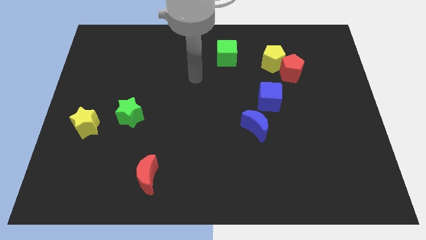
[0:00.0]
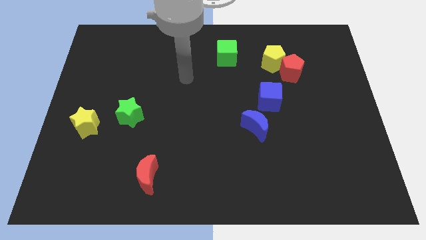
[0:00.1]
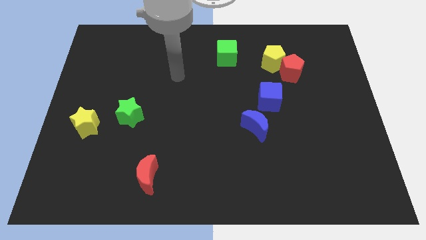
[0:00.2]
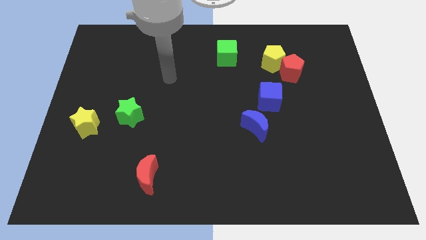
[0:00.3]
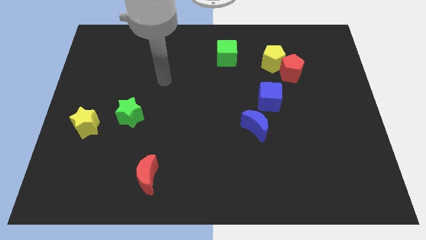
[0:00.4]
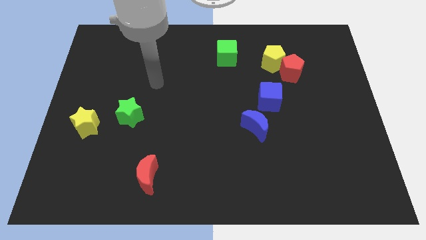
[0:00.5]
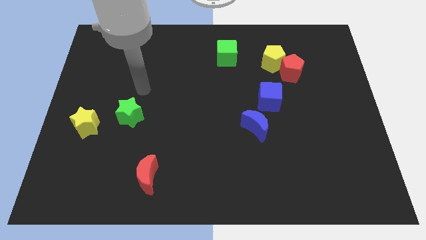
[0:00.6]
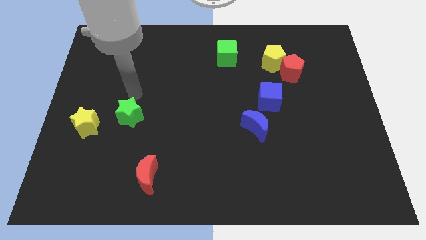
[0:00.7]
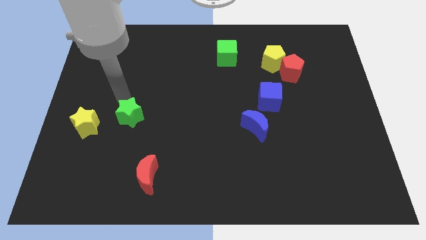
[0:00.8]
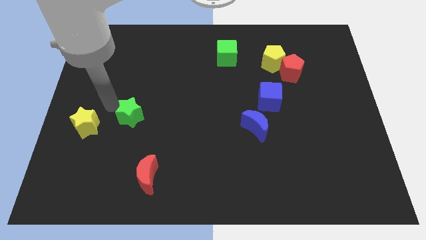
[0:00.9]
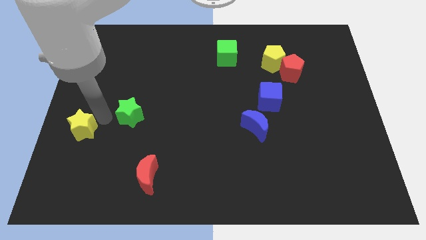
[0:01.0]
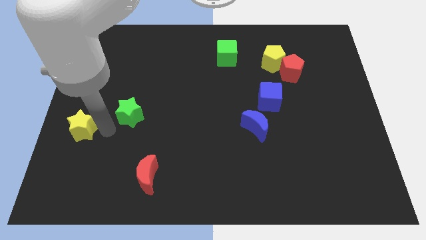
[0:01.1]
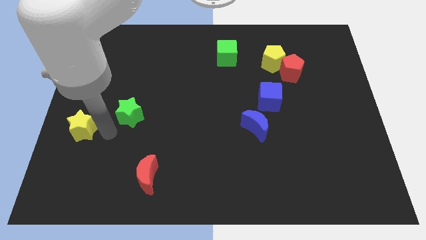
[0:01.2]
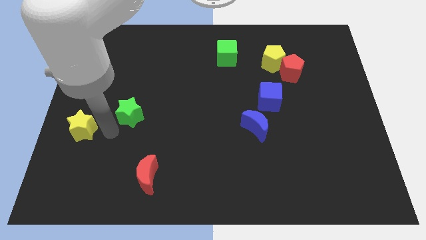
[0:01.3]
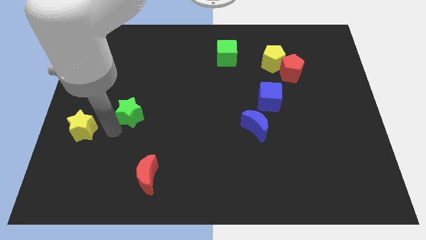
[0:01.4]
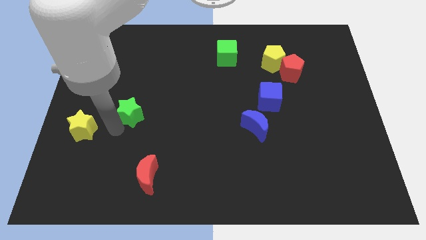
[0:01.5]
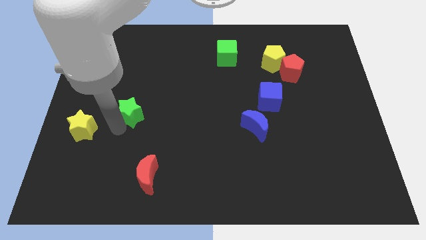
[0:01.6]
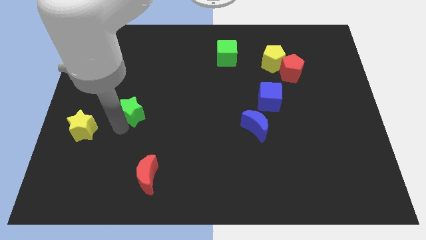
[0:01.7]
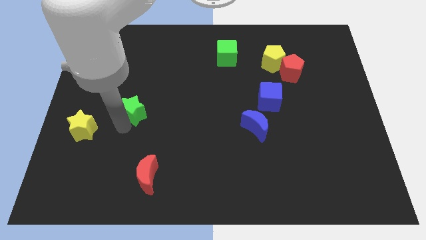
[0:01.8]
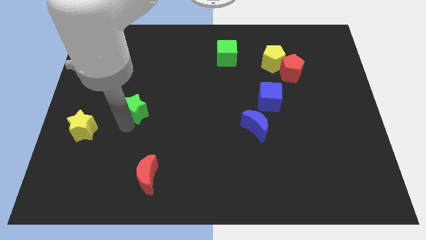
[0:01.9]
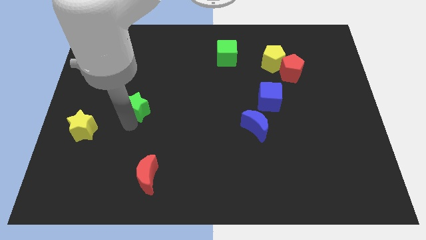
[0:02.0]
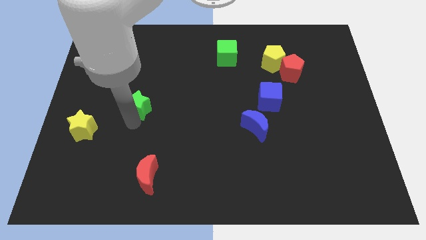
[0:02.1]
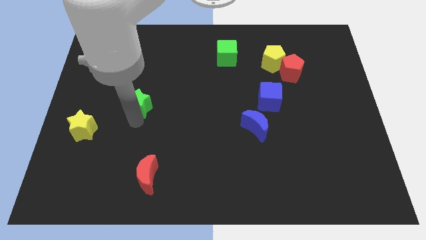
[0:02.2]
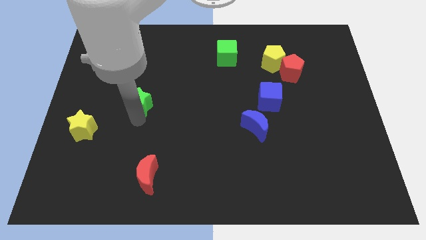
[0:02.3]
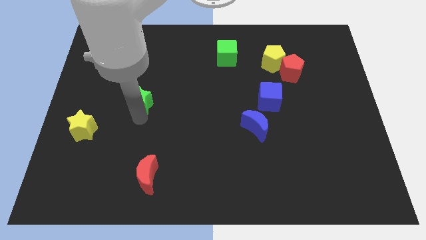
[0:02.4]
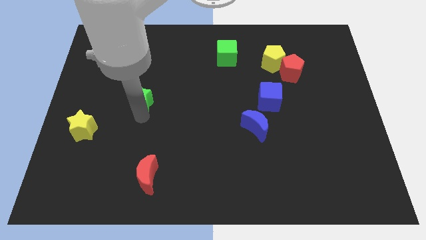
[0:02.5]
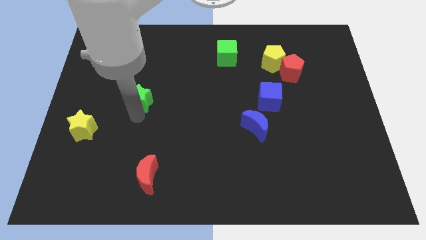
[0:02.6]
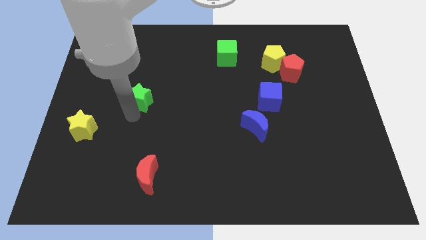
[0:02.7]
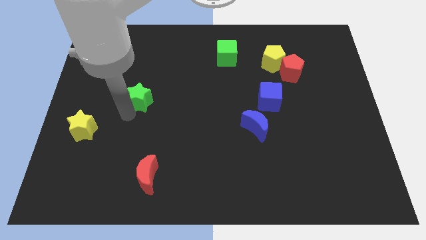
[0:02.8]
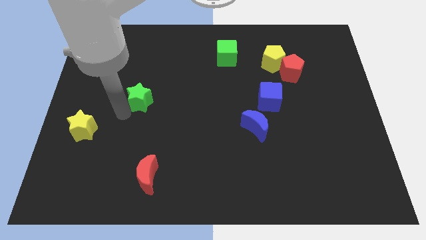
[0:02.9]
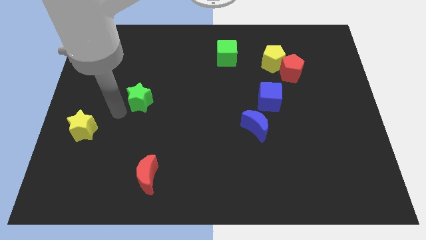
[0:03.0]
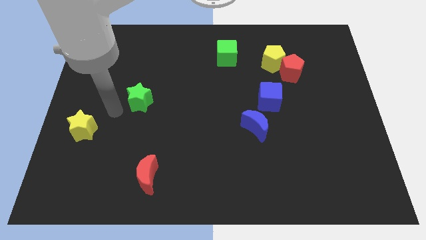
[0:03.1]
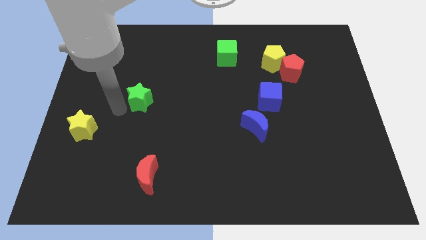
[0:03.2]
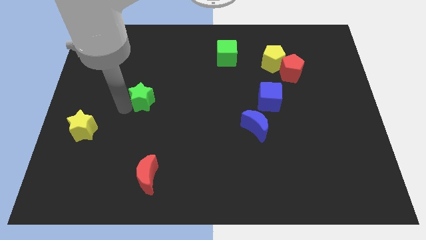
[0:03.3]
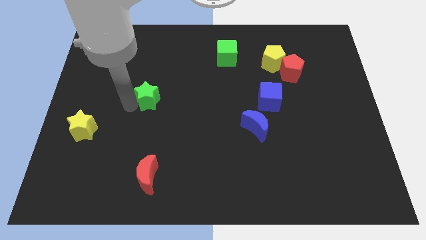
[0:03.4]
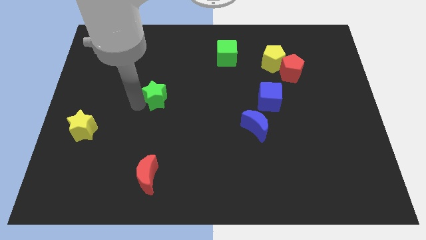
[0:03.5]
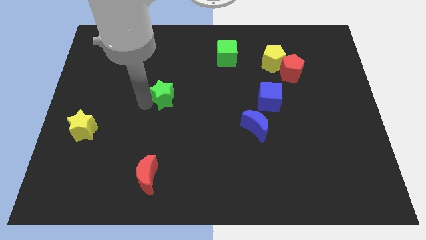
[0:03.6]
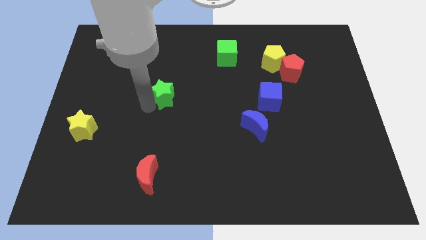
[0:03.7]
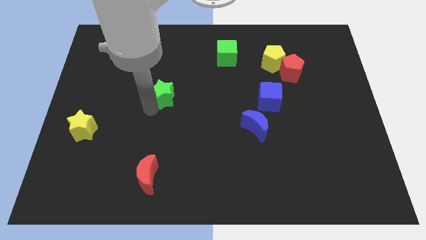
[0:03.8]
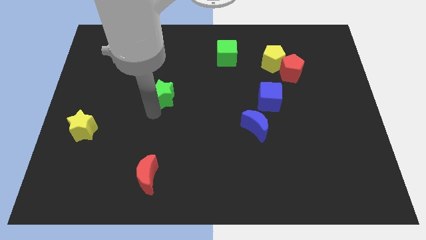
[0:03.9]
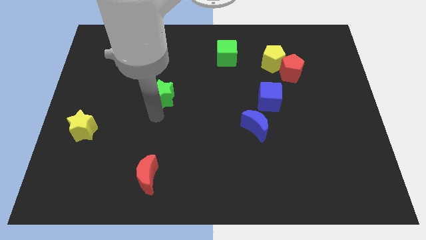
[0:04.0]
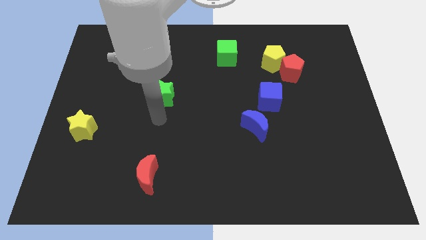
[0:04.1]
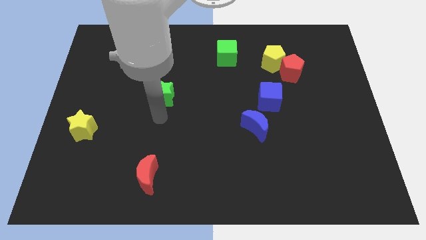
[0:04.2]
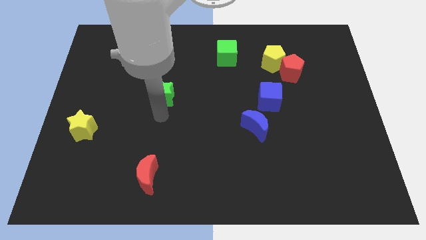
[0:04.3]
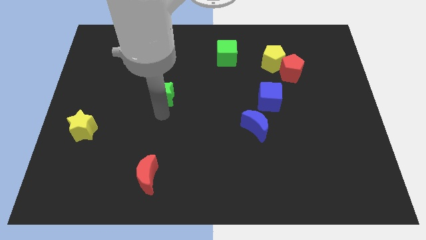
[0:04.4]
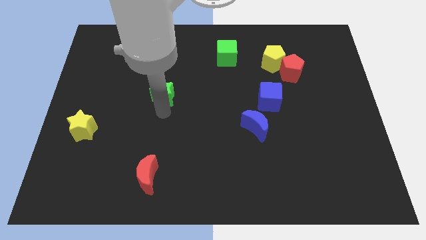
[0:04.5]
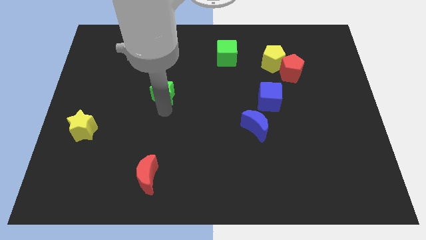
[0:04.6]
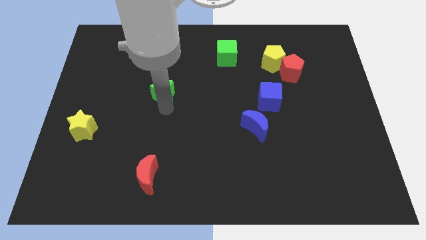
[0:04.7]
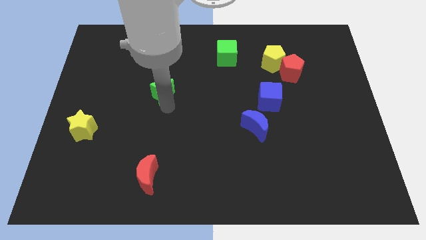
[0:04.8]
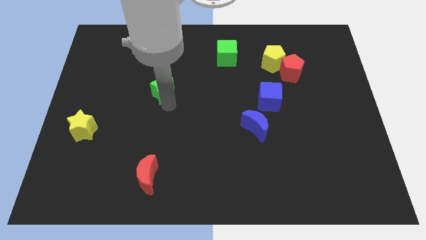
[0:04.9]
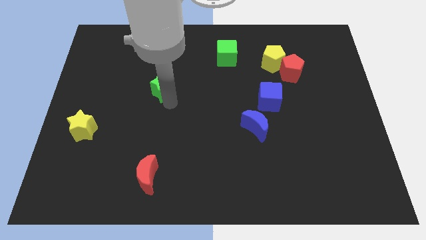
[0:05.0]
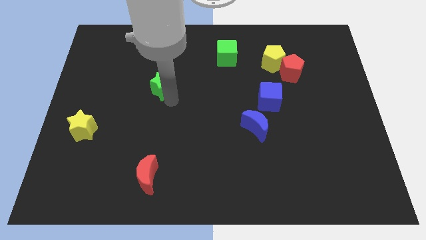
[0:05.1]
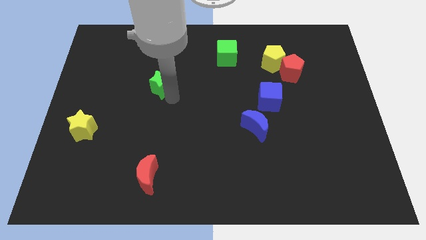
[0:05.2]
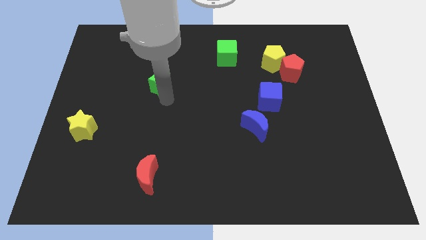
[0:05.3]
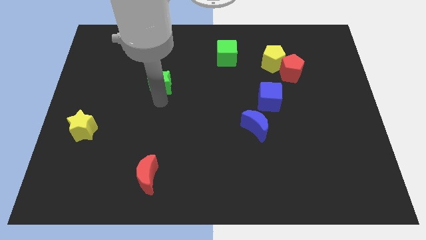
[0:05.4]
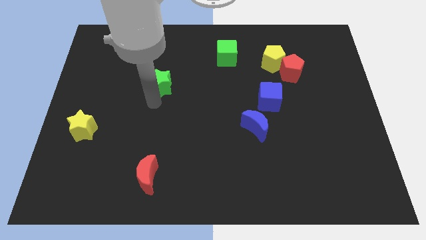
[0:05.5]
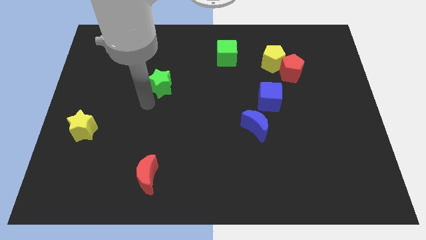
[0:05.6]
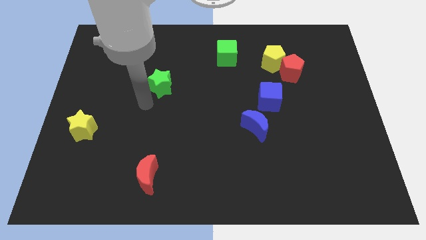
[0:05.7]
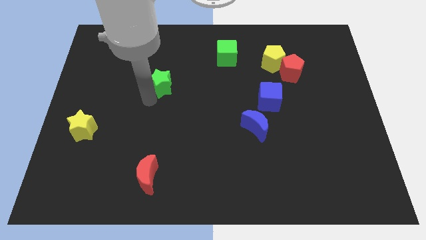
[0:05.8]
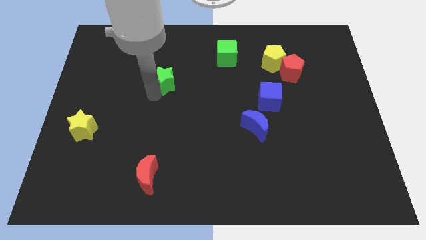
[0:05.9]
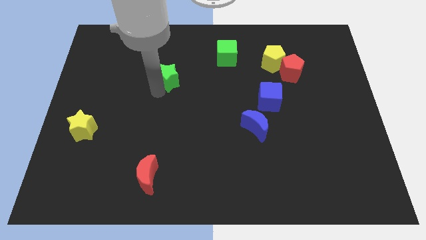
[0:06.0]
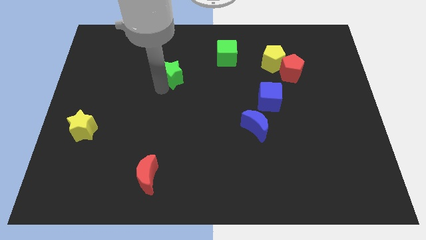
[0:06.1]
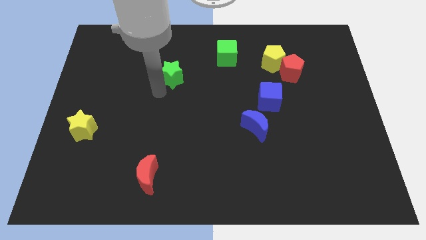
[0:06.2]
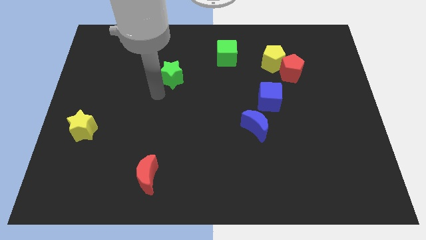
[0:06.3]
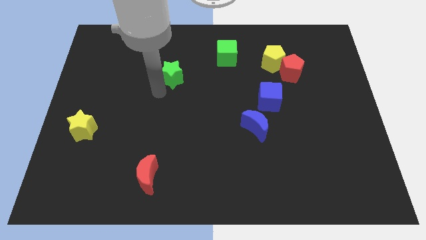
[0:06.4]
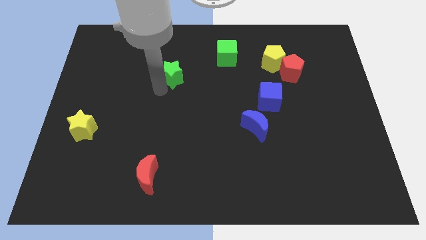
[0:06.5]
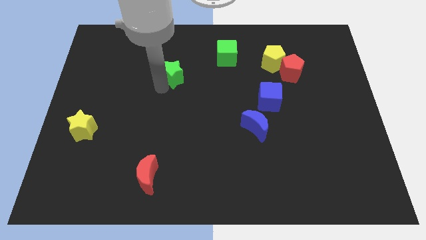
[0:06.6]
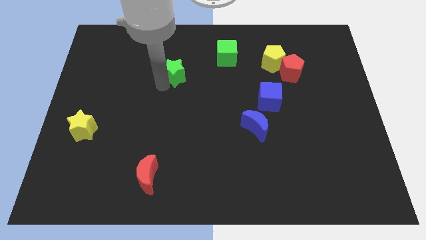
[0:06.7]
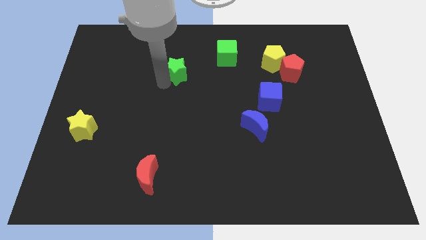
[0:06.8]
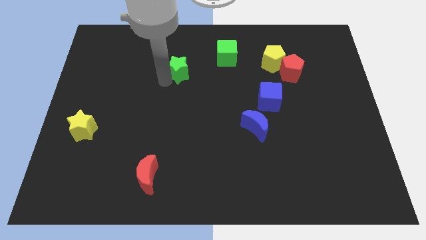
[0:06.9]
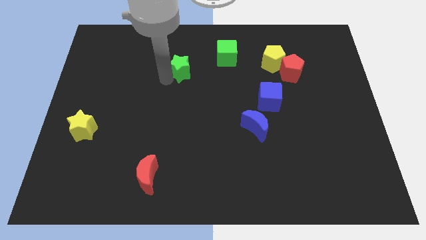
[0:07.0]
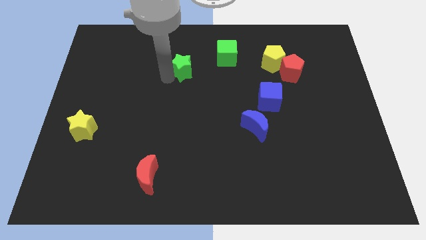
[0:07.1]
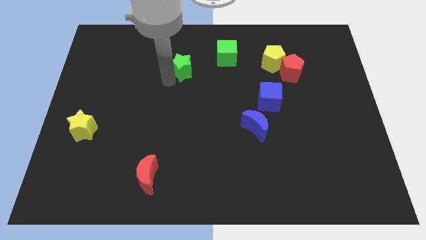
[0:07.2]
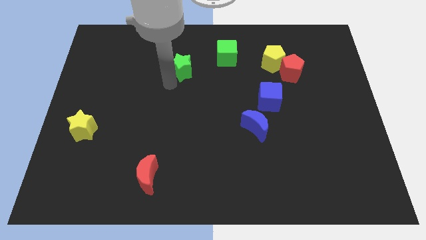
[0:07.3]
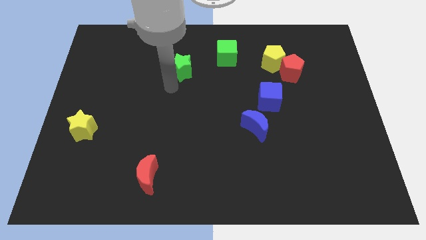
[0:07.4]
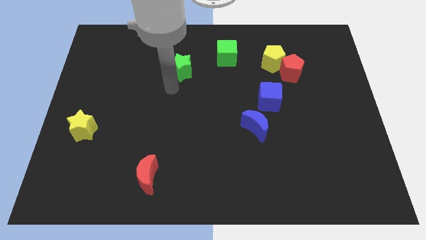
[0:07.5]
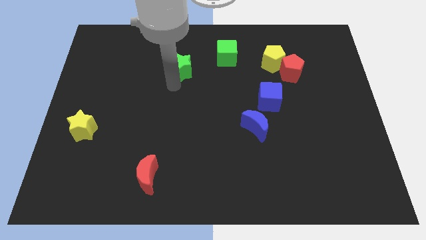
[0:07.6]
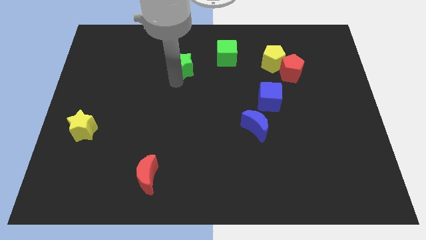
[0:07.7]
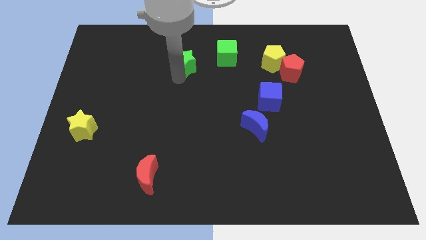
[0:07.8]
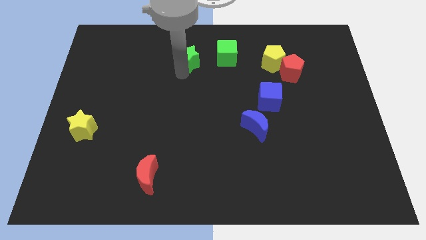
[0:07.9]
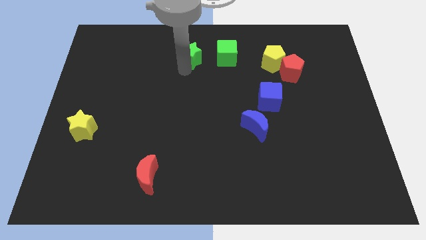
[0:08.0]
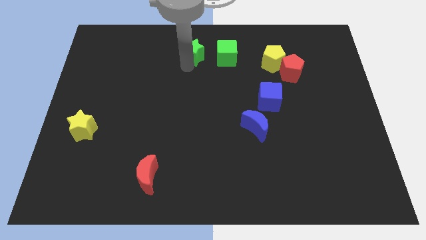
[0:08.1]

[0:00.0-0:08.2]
move the green star to the top side
